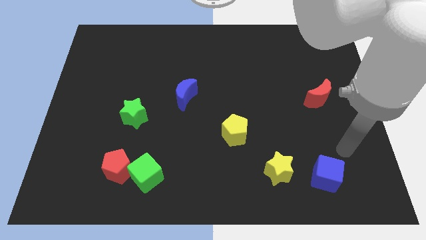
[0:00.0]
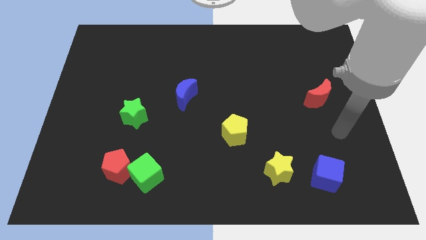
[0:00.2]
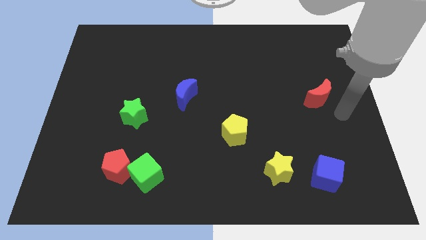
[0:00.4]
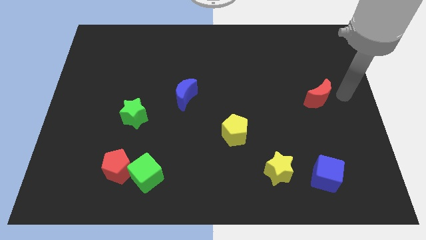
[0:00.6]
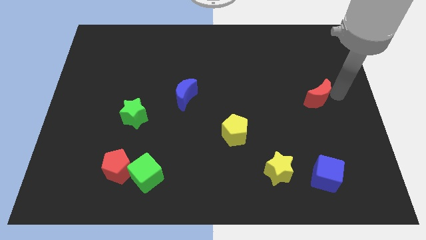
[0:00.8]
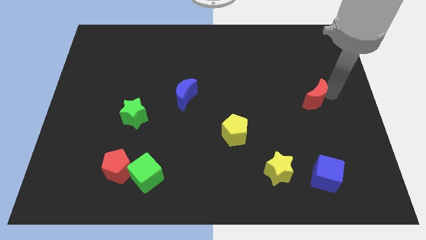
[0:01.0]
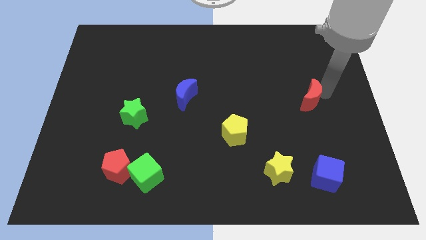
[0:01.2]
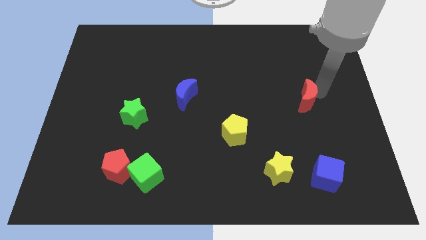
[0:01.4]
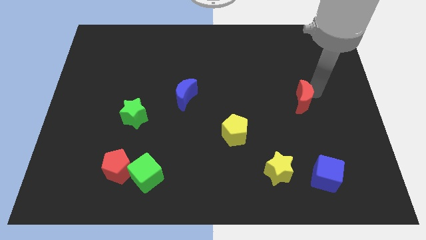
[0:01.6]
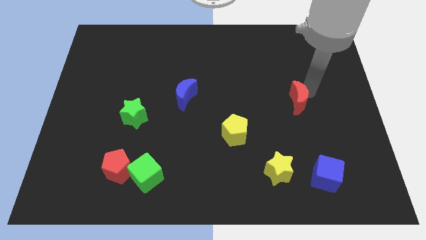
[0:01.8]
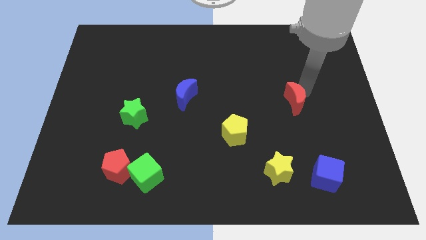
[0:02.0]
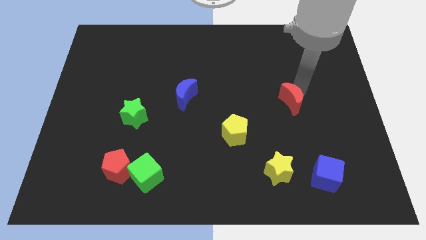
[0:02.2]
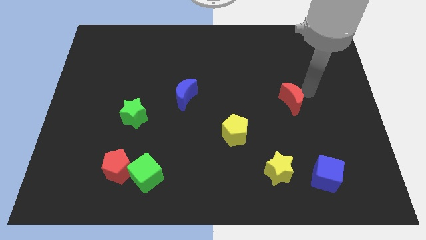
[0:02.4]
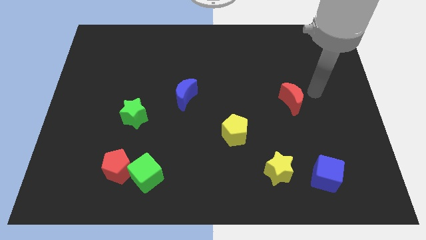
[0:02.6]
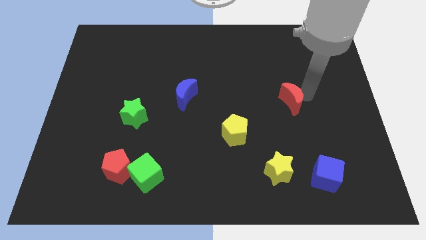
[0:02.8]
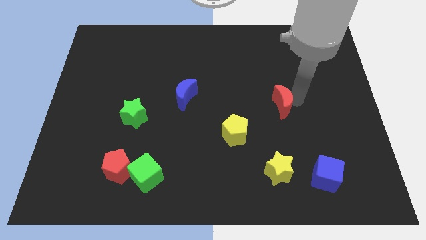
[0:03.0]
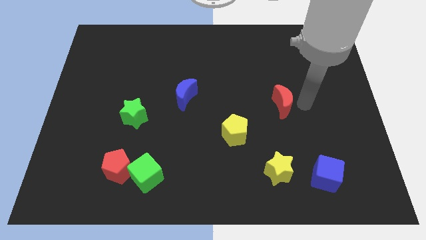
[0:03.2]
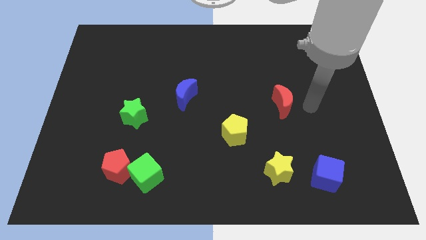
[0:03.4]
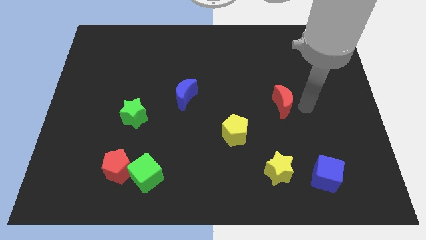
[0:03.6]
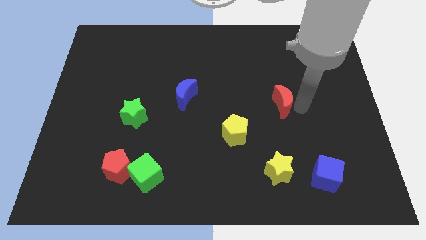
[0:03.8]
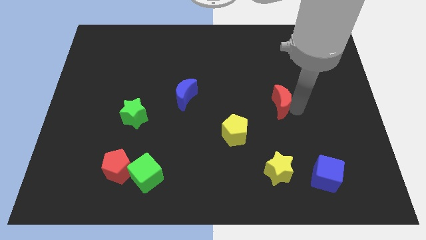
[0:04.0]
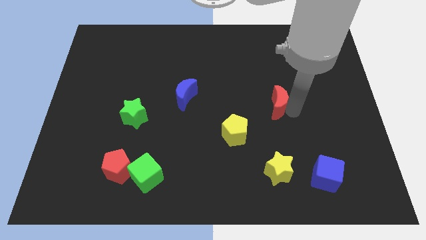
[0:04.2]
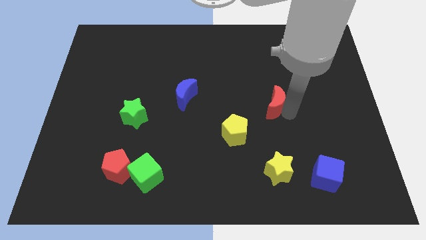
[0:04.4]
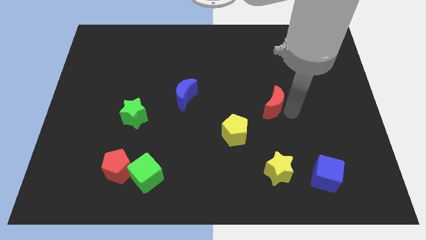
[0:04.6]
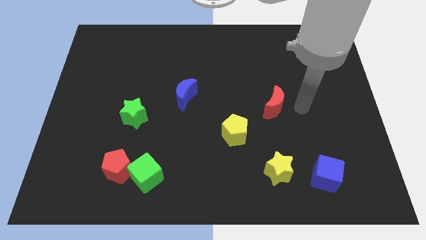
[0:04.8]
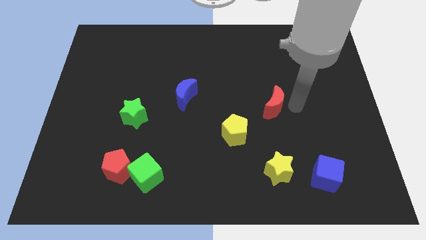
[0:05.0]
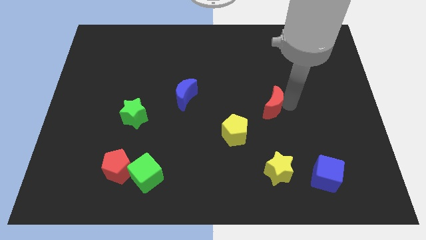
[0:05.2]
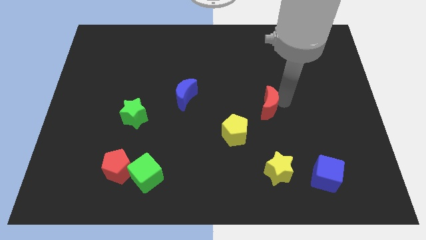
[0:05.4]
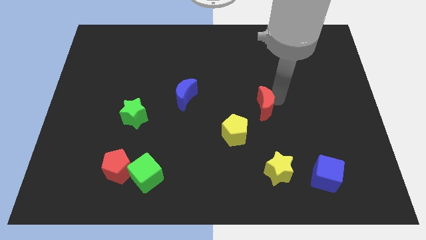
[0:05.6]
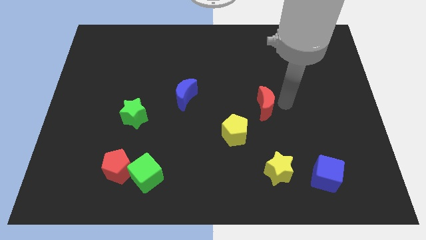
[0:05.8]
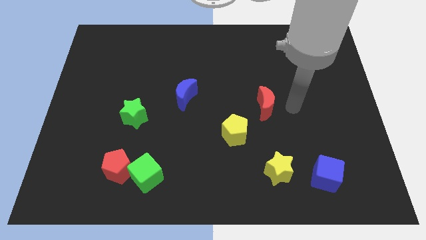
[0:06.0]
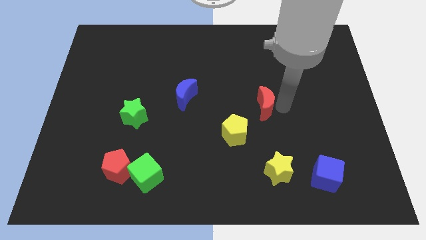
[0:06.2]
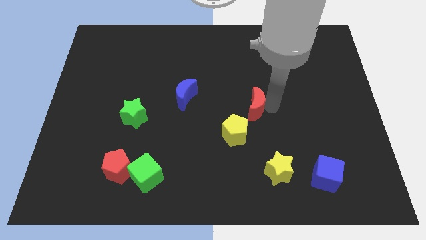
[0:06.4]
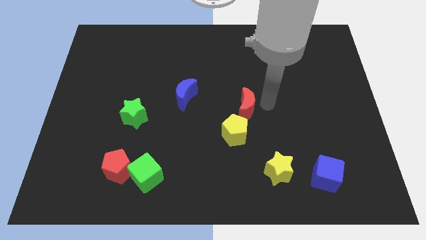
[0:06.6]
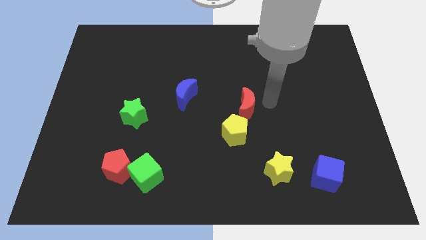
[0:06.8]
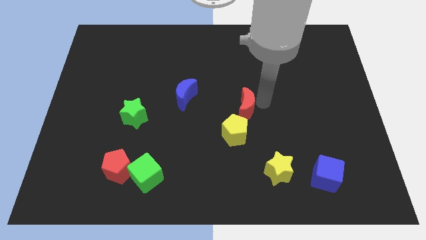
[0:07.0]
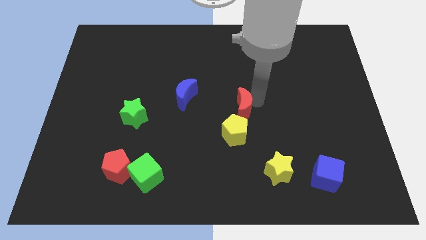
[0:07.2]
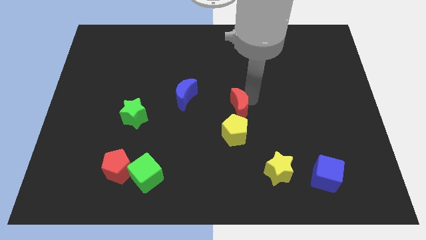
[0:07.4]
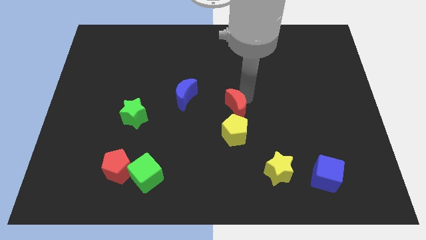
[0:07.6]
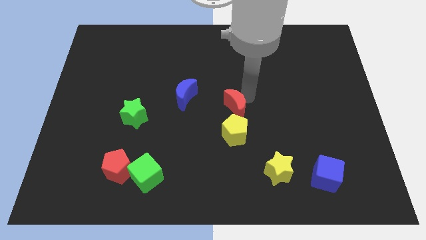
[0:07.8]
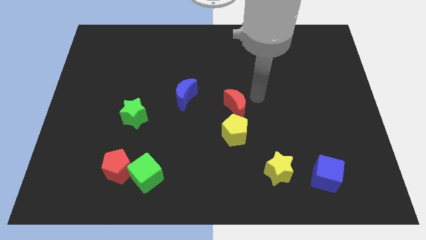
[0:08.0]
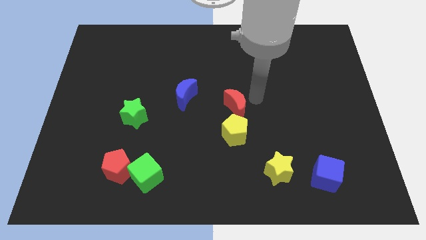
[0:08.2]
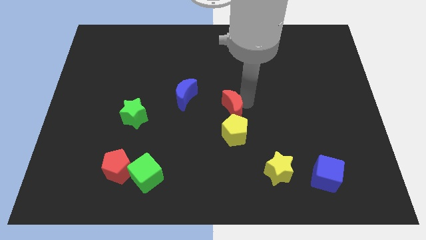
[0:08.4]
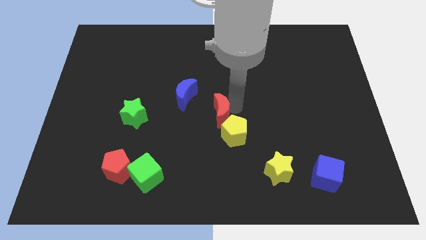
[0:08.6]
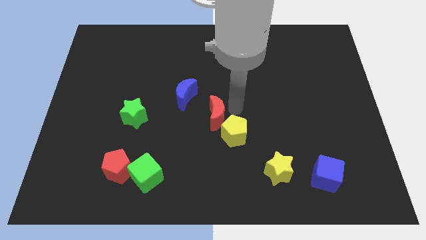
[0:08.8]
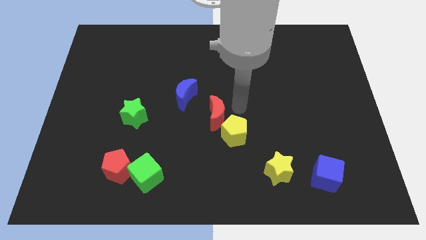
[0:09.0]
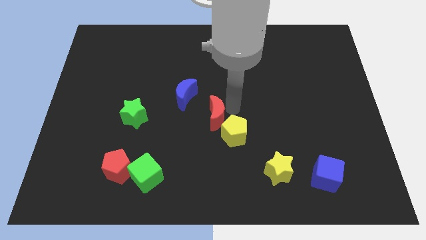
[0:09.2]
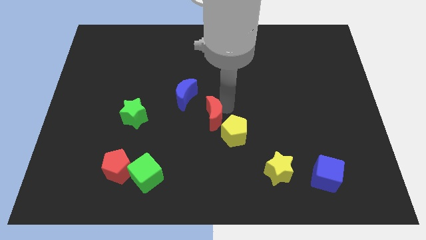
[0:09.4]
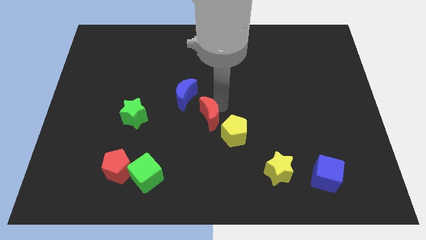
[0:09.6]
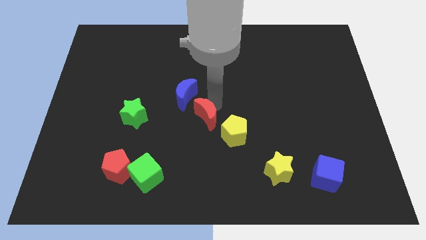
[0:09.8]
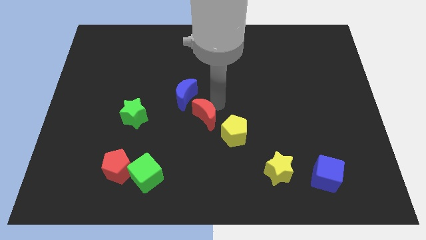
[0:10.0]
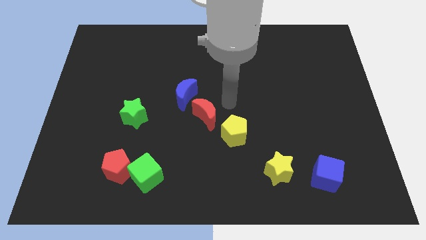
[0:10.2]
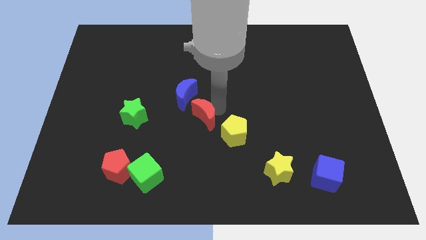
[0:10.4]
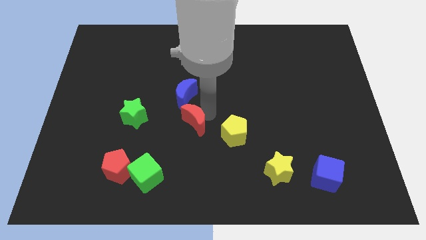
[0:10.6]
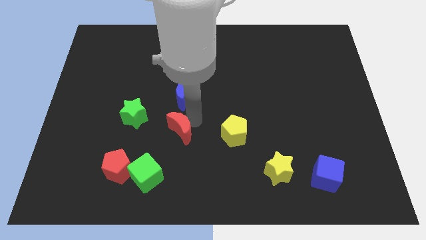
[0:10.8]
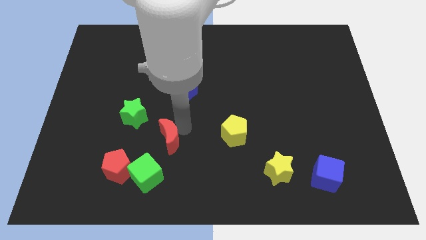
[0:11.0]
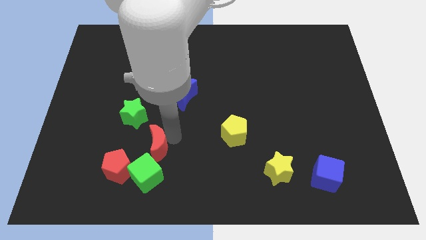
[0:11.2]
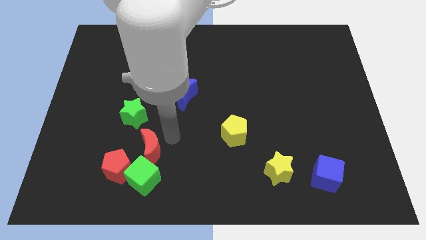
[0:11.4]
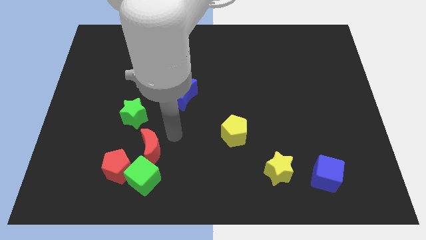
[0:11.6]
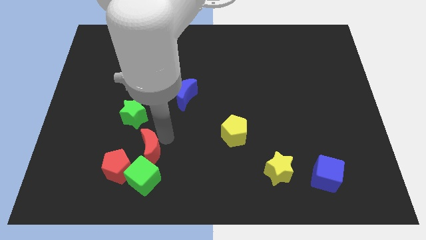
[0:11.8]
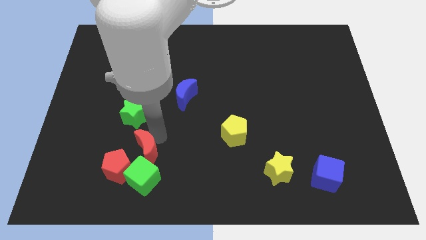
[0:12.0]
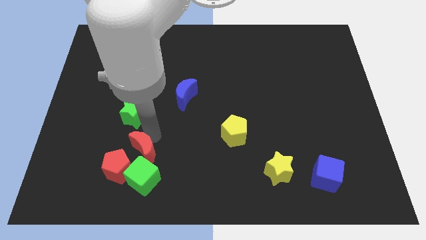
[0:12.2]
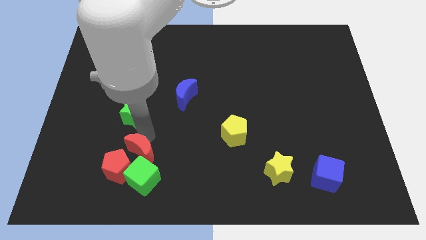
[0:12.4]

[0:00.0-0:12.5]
move the red moon towards the red pentagon

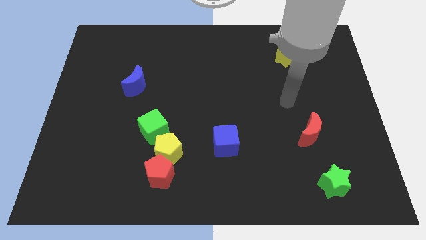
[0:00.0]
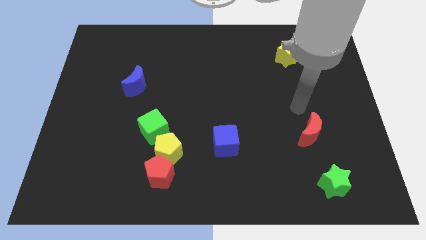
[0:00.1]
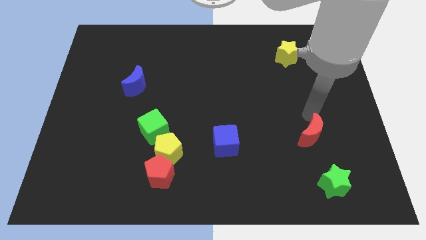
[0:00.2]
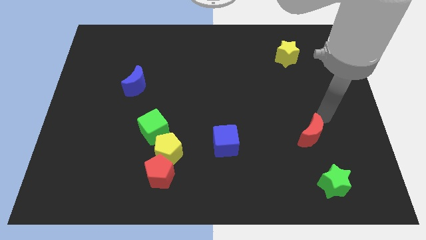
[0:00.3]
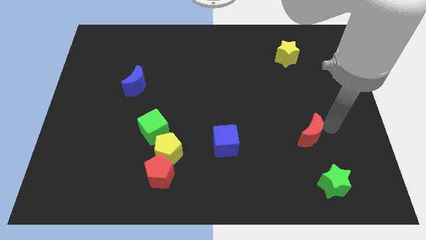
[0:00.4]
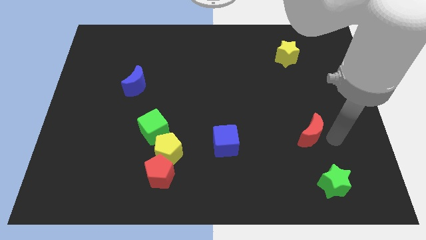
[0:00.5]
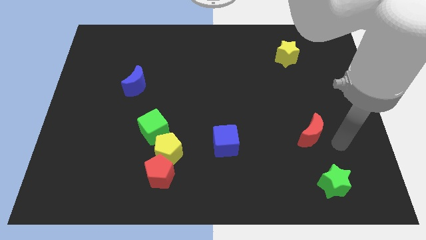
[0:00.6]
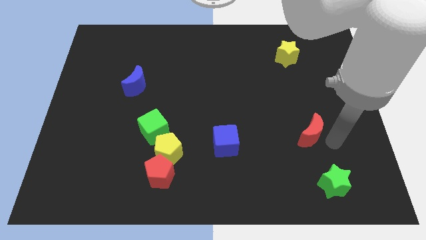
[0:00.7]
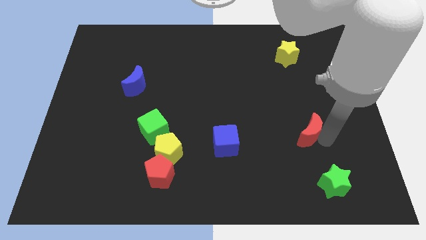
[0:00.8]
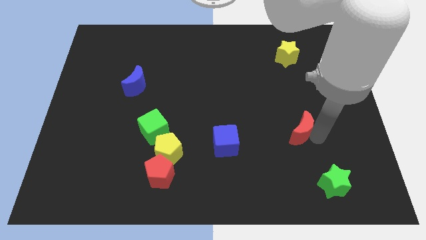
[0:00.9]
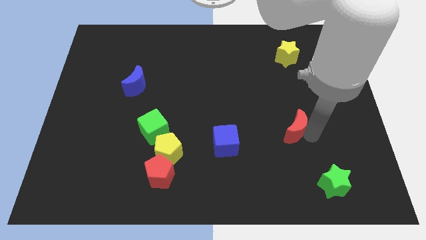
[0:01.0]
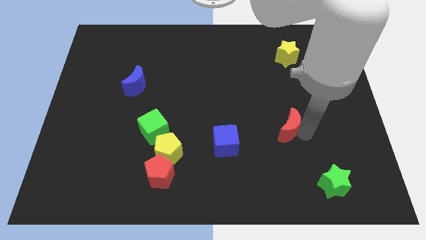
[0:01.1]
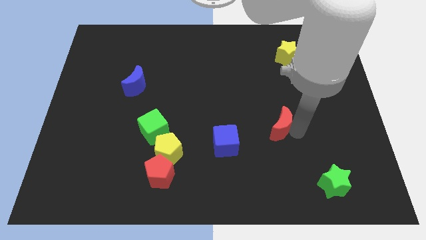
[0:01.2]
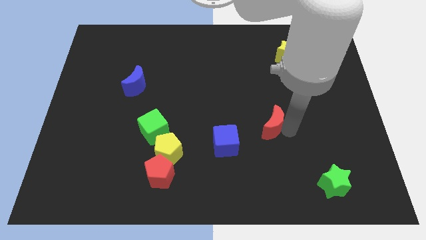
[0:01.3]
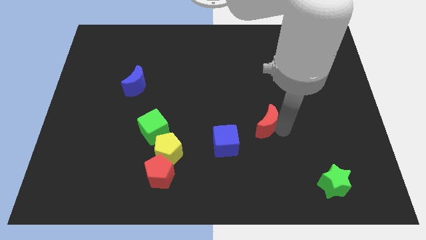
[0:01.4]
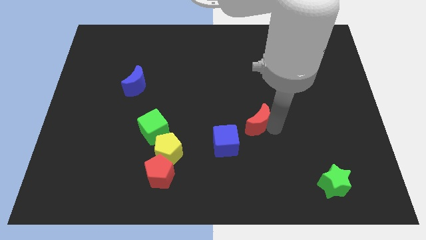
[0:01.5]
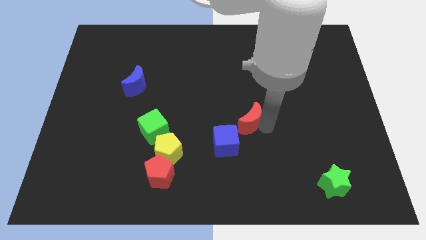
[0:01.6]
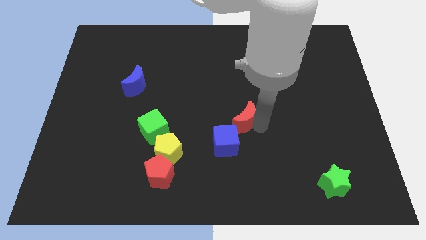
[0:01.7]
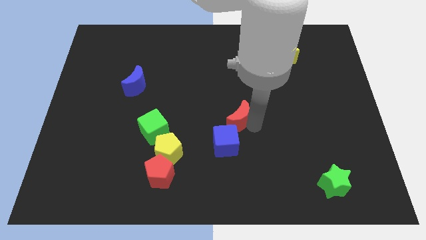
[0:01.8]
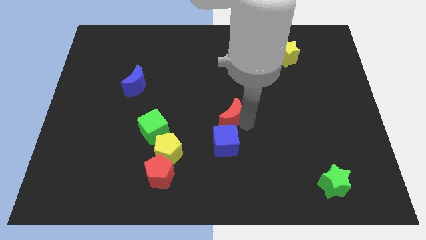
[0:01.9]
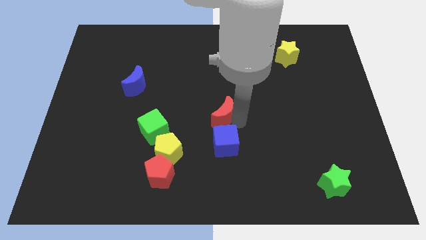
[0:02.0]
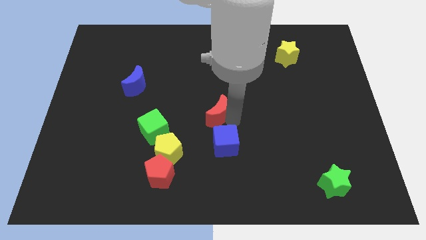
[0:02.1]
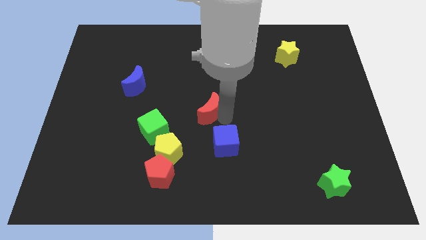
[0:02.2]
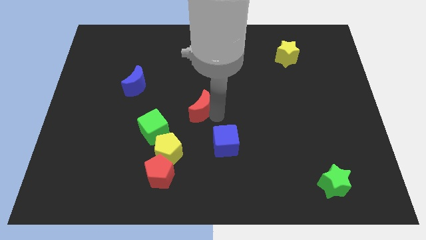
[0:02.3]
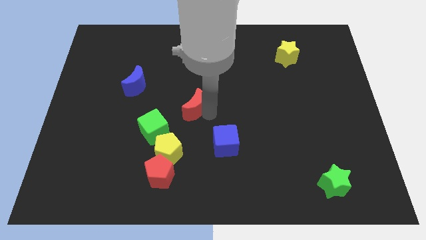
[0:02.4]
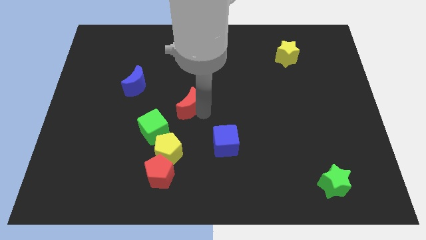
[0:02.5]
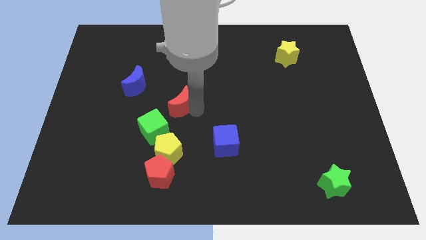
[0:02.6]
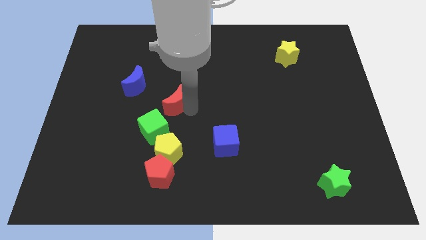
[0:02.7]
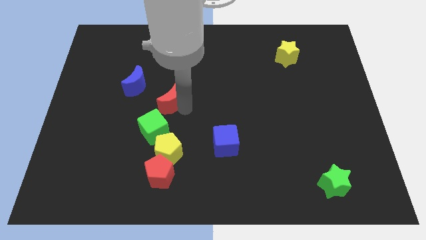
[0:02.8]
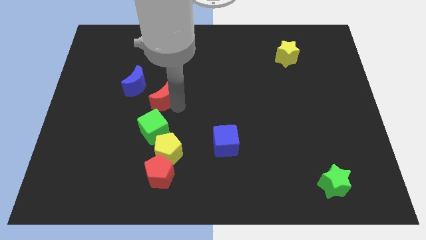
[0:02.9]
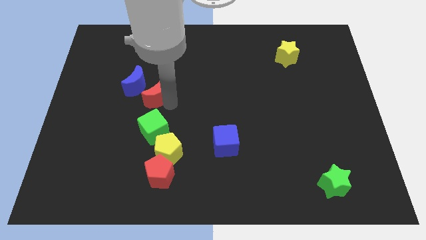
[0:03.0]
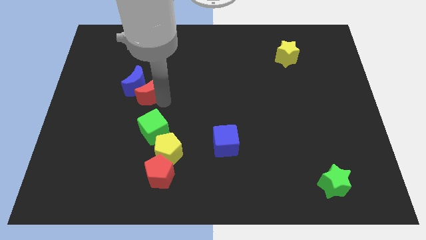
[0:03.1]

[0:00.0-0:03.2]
put the red moon towards the blue moon
